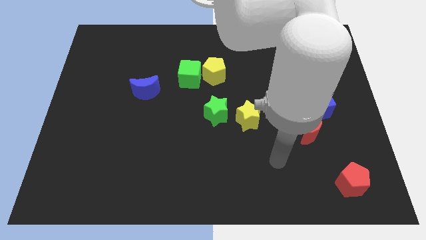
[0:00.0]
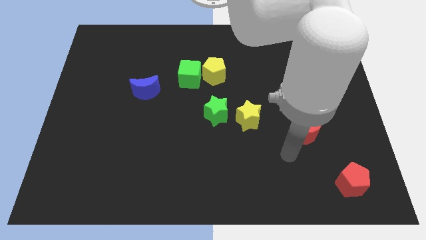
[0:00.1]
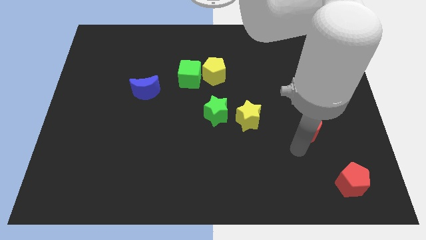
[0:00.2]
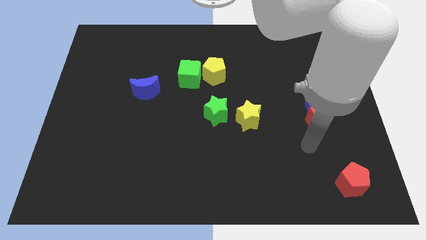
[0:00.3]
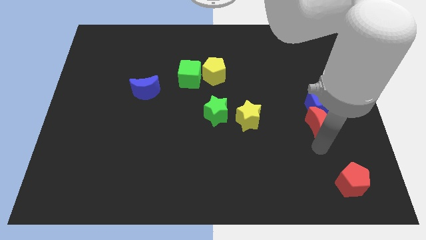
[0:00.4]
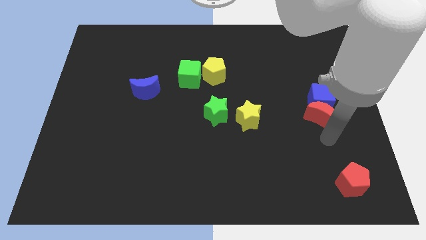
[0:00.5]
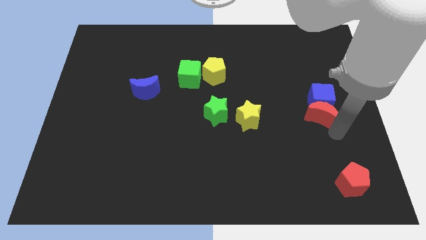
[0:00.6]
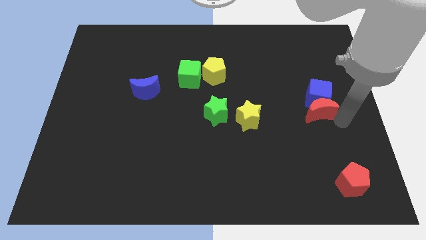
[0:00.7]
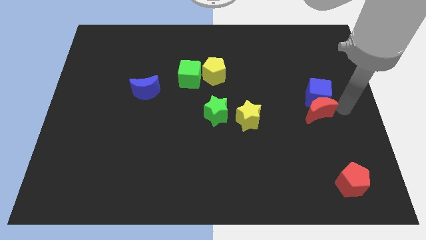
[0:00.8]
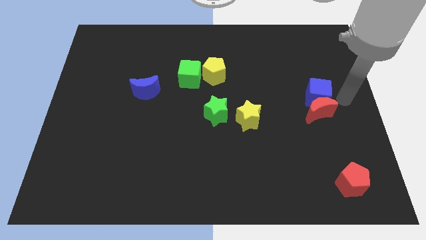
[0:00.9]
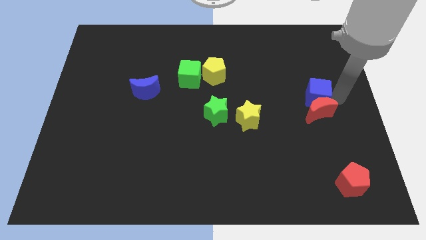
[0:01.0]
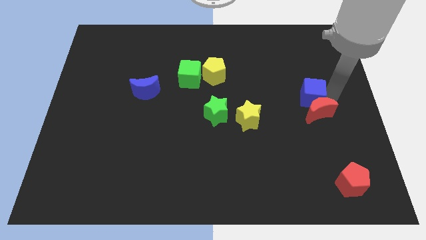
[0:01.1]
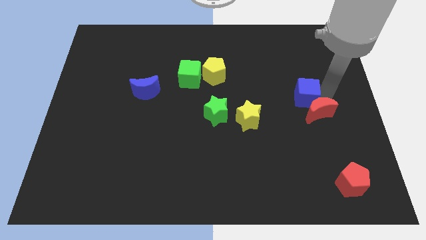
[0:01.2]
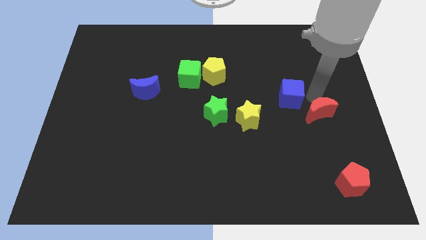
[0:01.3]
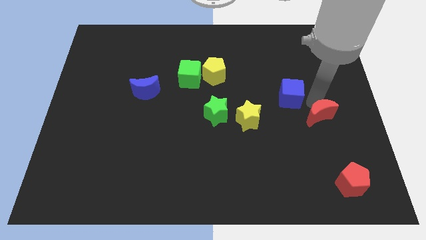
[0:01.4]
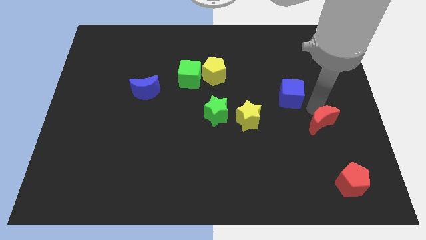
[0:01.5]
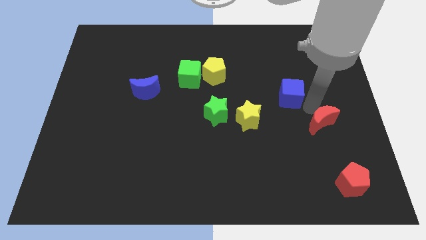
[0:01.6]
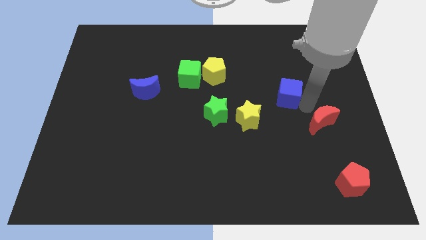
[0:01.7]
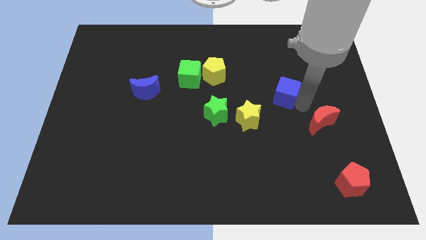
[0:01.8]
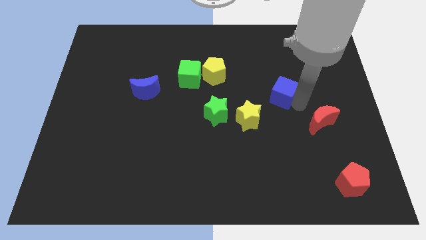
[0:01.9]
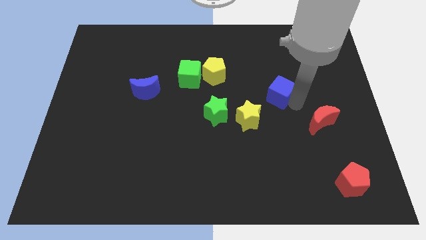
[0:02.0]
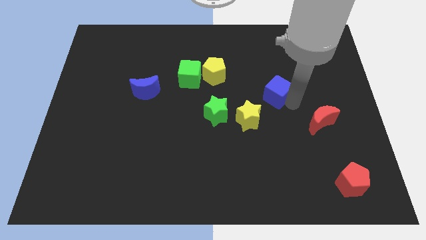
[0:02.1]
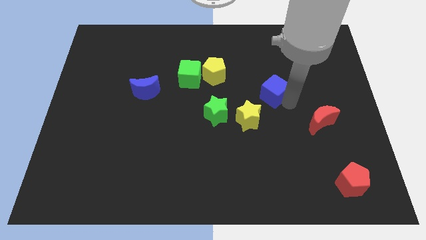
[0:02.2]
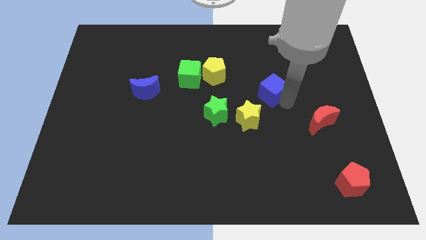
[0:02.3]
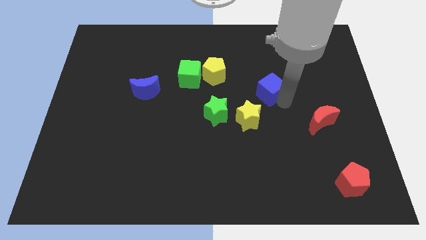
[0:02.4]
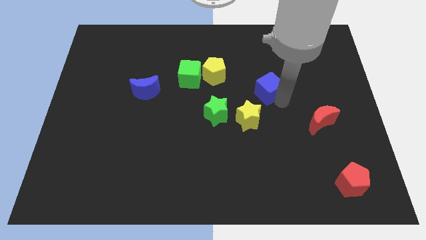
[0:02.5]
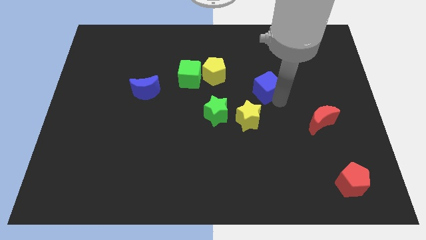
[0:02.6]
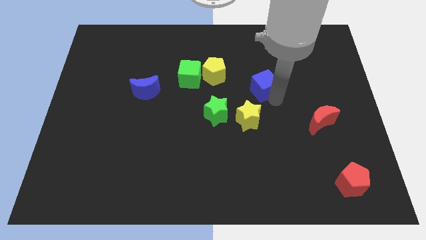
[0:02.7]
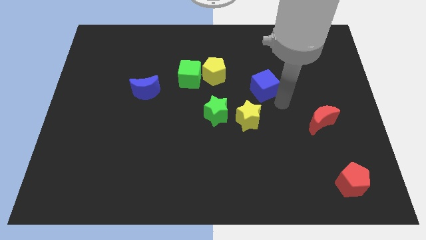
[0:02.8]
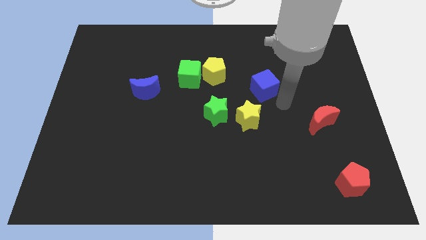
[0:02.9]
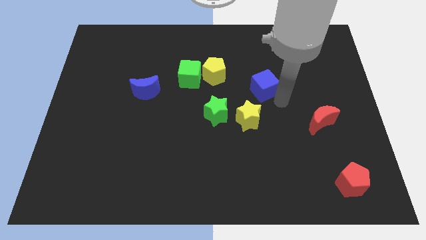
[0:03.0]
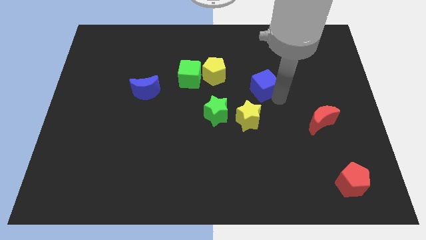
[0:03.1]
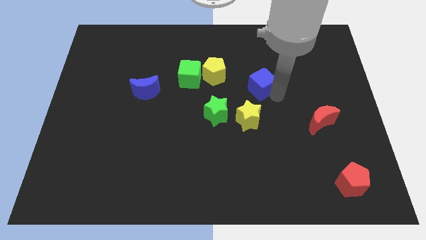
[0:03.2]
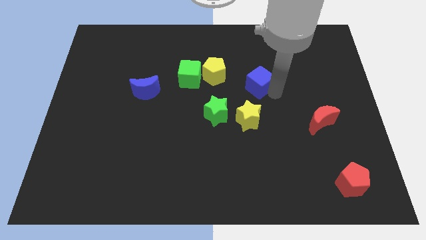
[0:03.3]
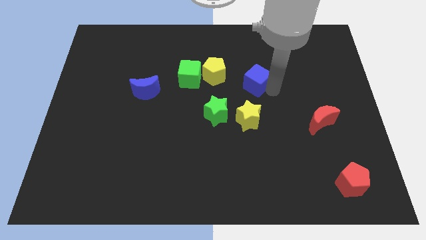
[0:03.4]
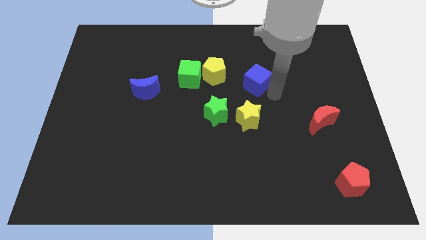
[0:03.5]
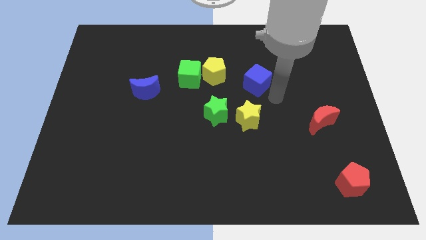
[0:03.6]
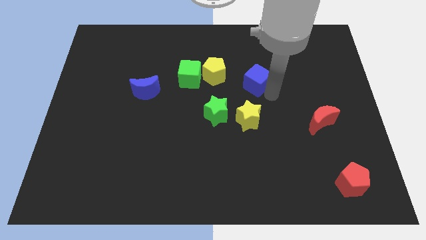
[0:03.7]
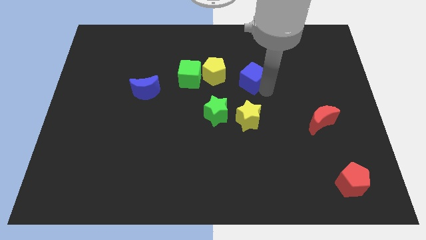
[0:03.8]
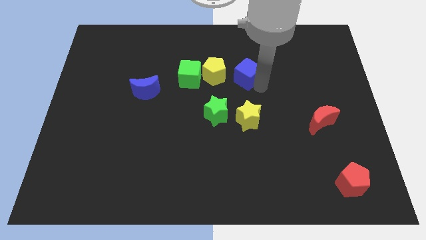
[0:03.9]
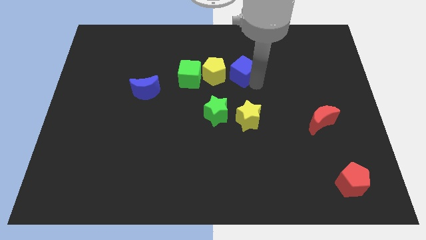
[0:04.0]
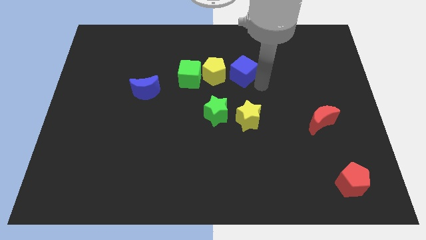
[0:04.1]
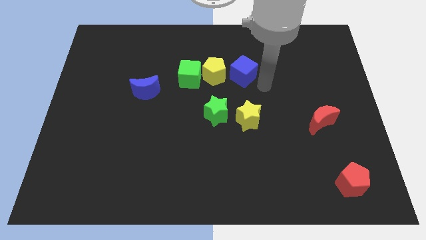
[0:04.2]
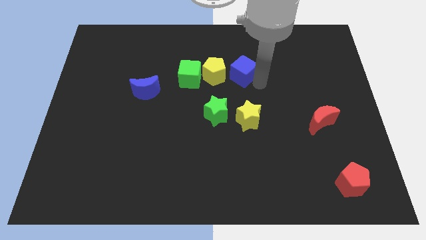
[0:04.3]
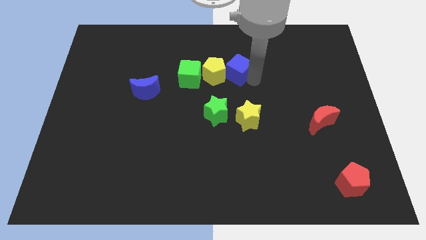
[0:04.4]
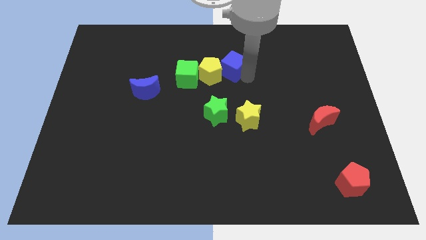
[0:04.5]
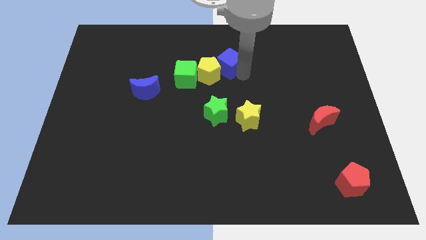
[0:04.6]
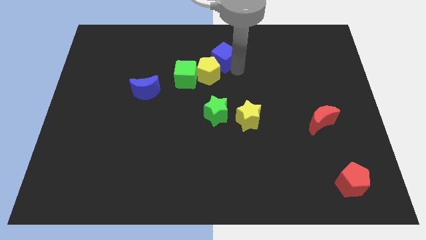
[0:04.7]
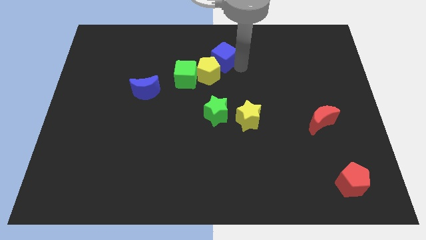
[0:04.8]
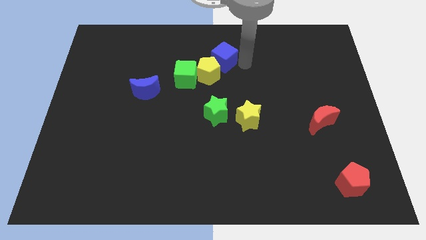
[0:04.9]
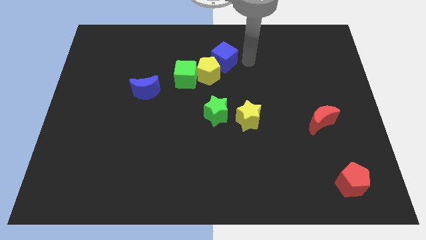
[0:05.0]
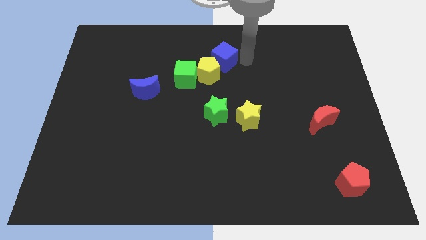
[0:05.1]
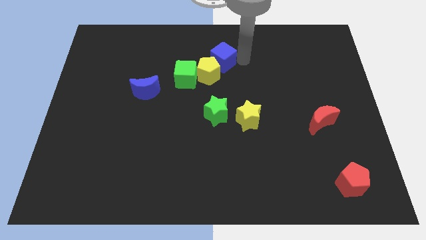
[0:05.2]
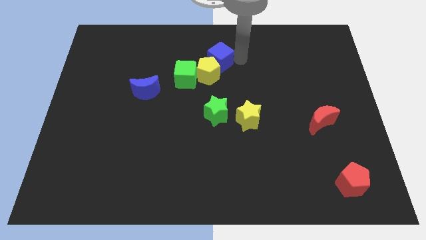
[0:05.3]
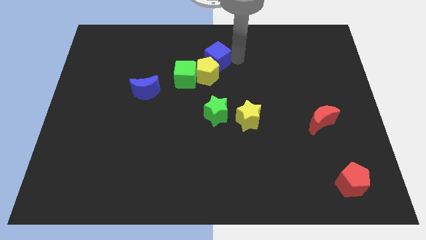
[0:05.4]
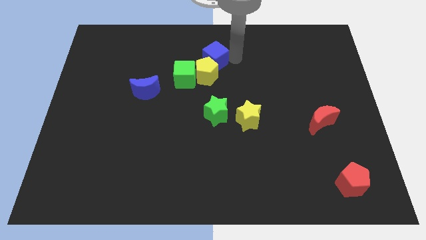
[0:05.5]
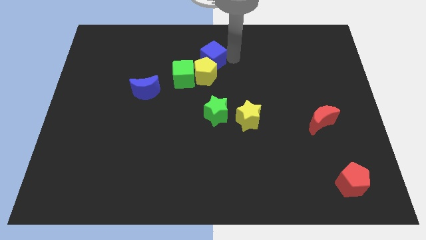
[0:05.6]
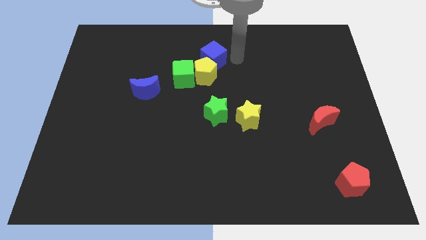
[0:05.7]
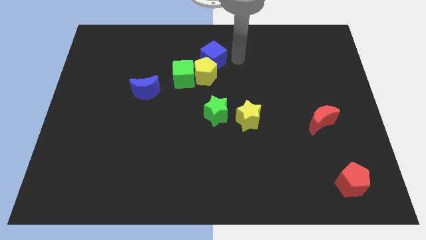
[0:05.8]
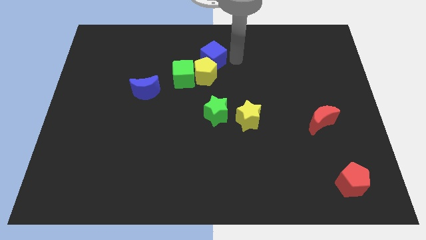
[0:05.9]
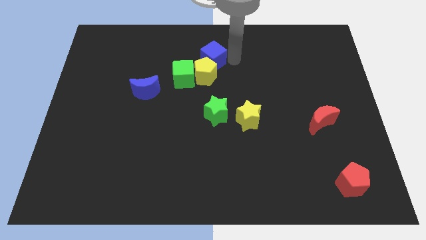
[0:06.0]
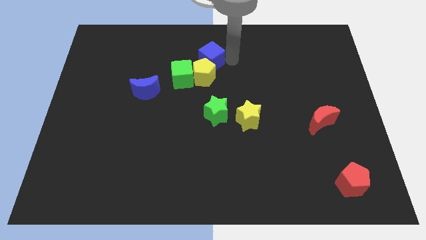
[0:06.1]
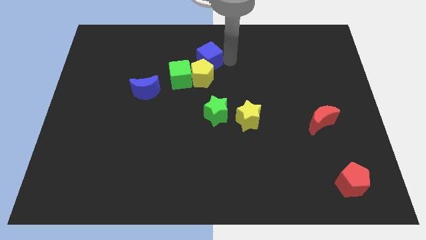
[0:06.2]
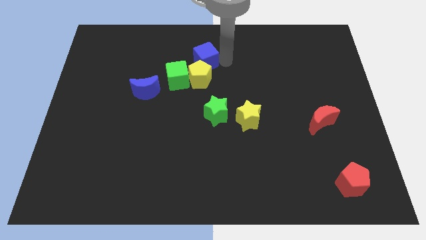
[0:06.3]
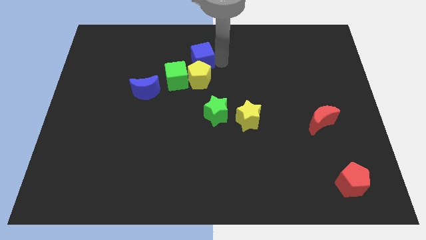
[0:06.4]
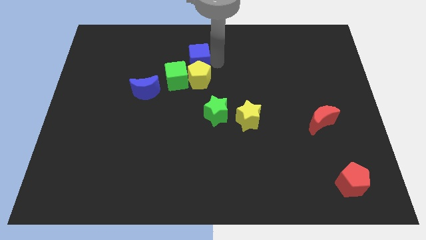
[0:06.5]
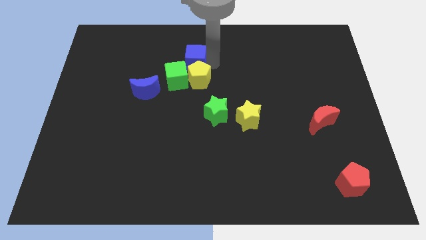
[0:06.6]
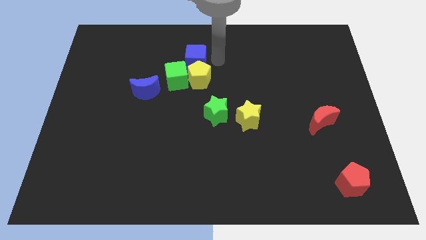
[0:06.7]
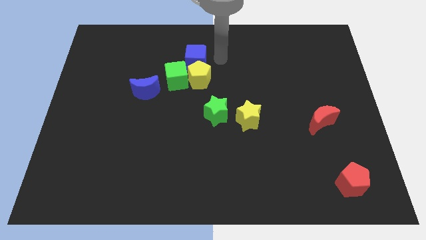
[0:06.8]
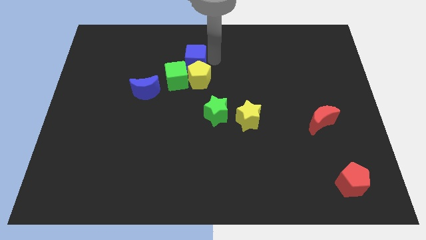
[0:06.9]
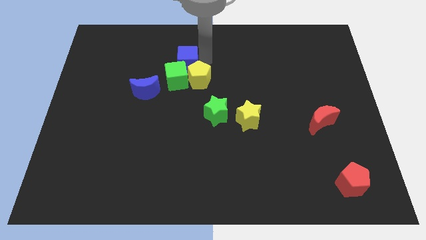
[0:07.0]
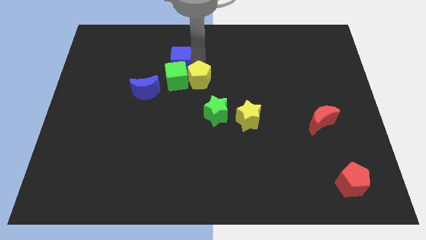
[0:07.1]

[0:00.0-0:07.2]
slide the blue cube to the top left side of the green cube
